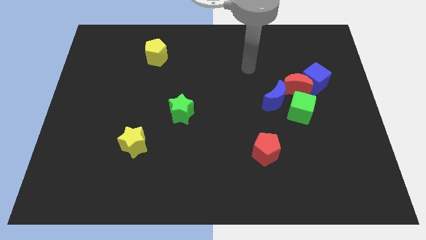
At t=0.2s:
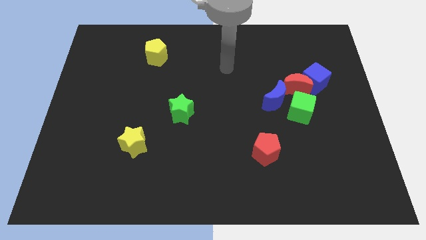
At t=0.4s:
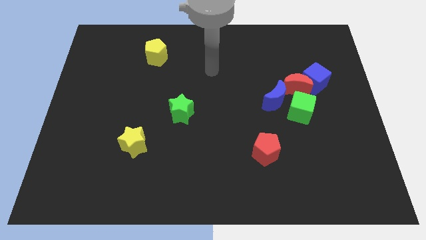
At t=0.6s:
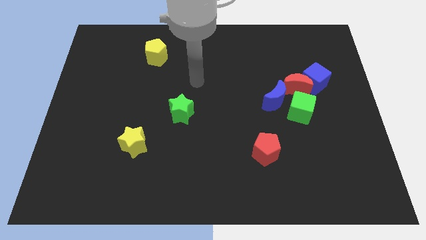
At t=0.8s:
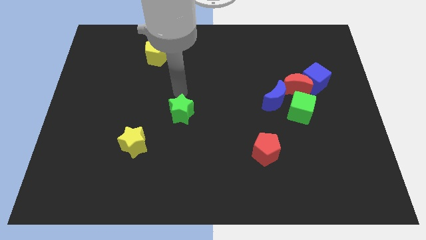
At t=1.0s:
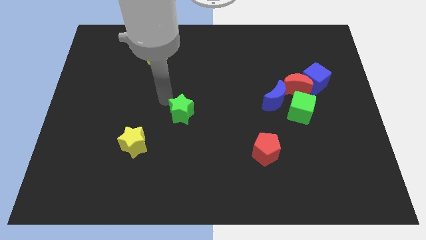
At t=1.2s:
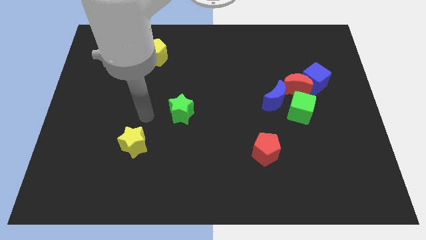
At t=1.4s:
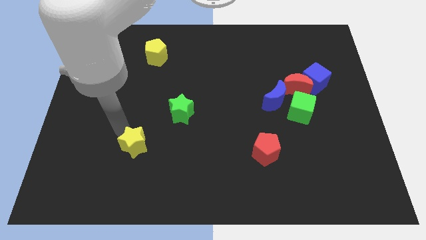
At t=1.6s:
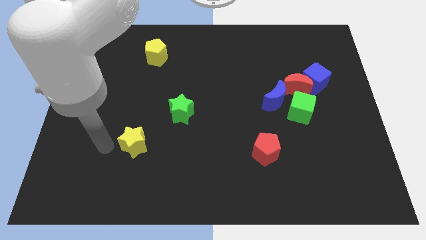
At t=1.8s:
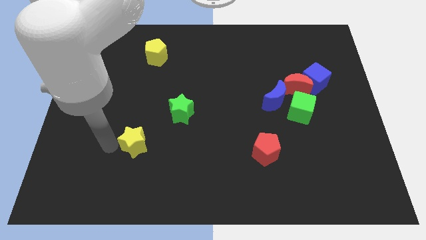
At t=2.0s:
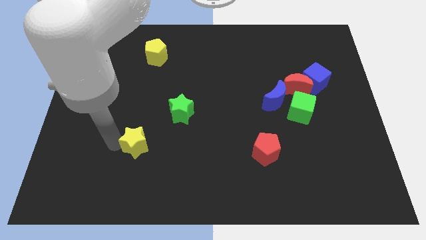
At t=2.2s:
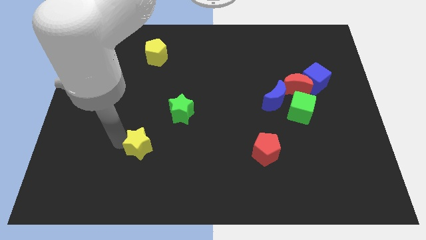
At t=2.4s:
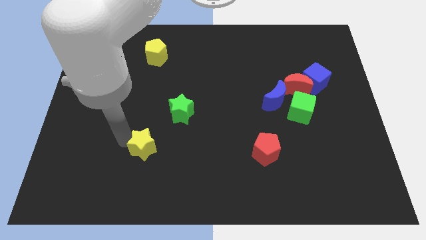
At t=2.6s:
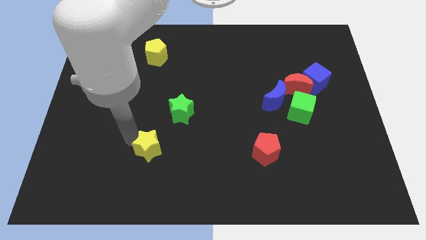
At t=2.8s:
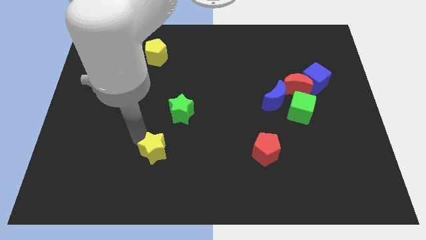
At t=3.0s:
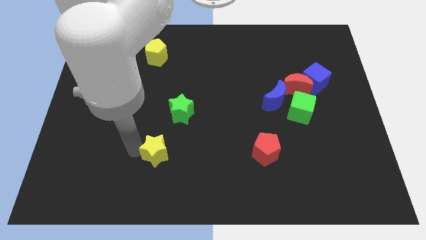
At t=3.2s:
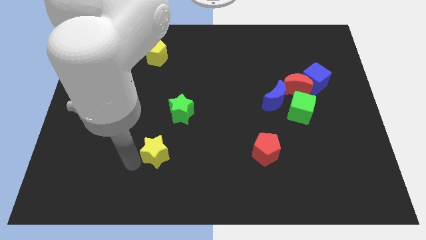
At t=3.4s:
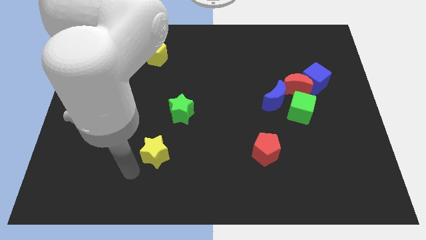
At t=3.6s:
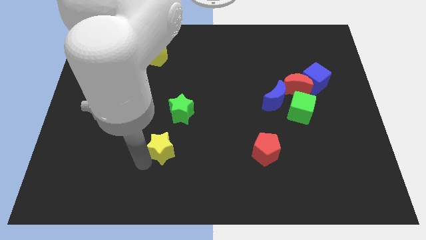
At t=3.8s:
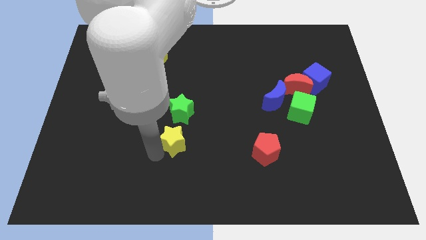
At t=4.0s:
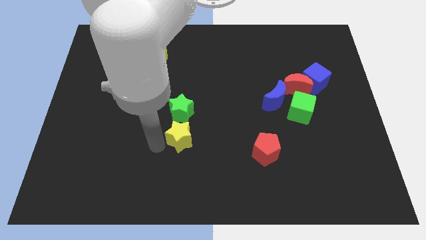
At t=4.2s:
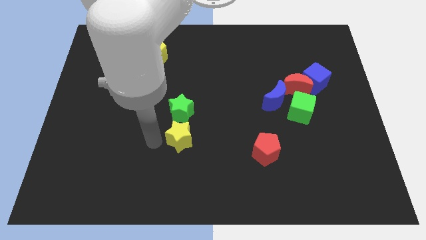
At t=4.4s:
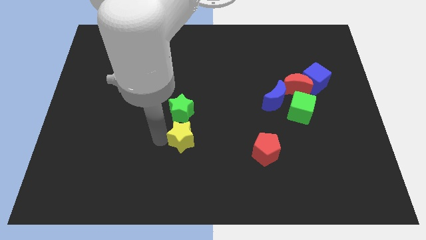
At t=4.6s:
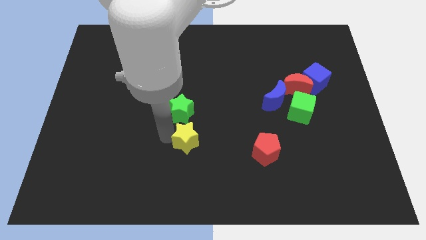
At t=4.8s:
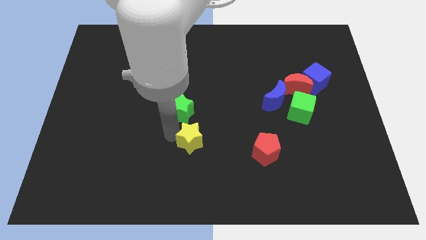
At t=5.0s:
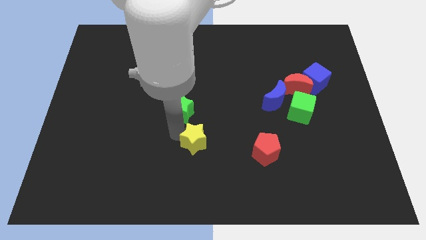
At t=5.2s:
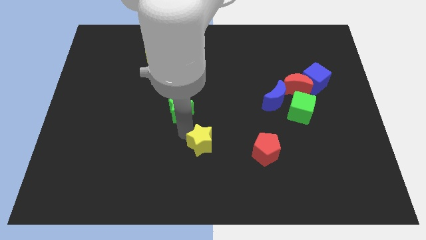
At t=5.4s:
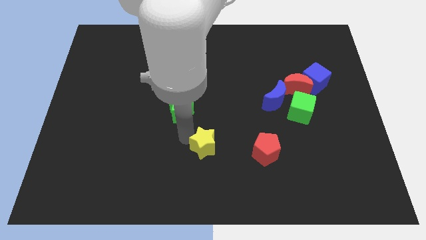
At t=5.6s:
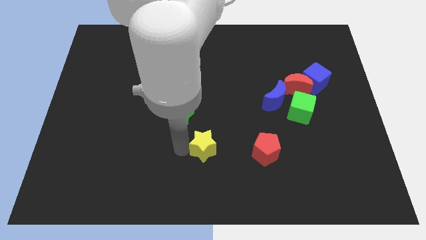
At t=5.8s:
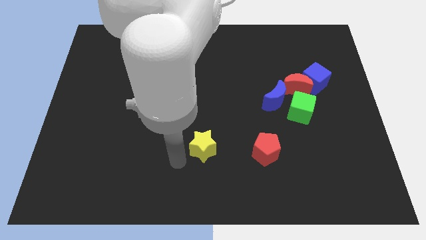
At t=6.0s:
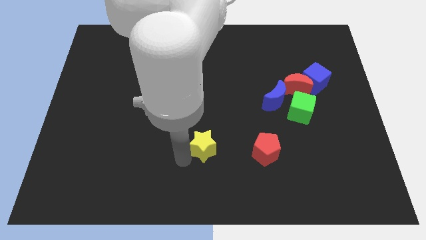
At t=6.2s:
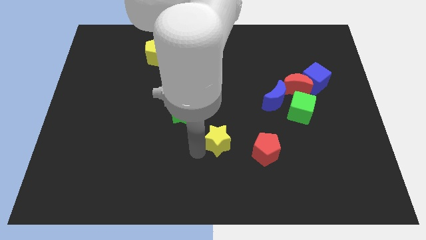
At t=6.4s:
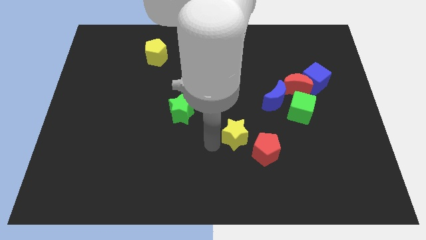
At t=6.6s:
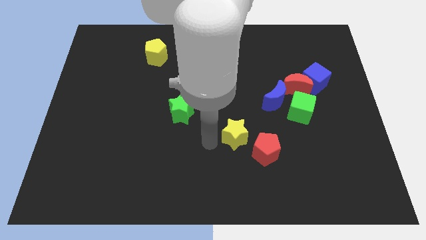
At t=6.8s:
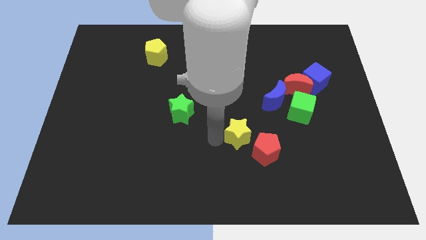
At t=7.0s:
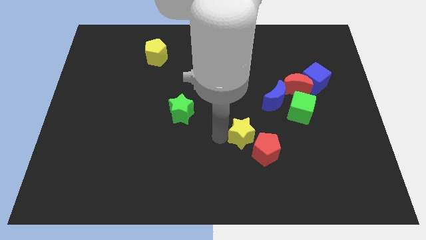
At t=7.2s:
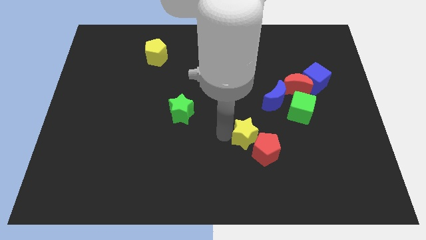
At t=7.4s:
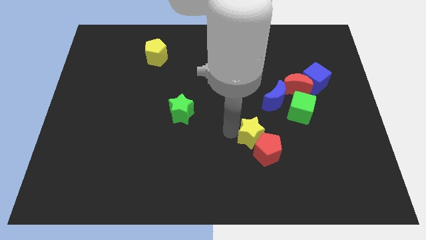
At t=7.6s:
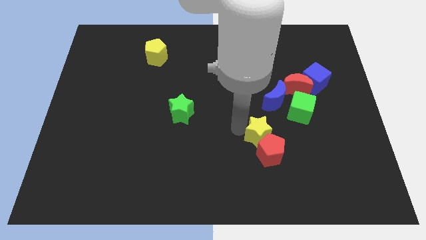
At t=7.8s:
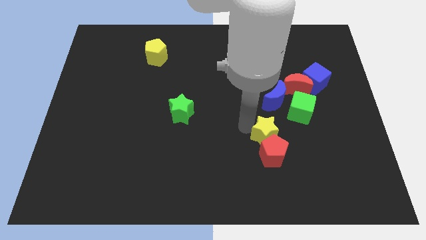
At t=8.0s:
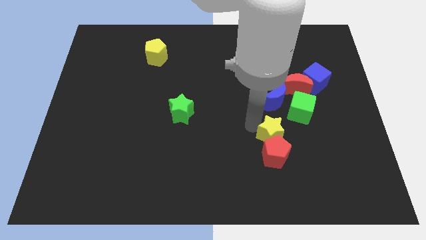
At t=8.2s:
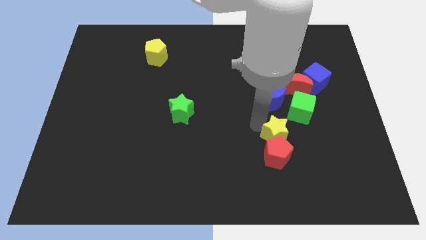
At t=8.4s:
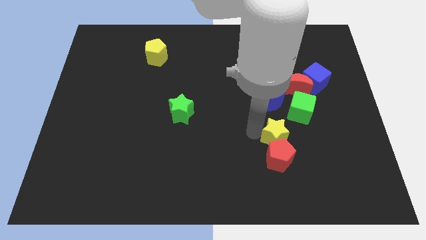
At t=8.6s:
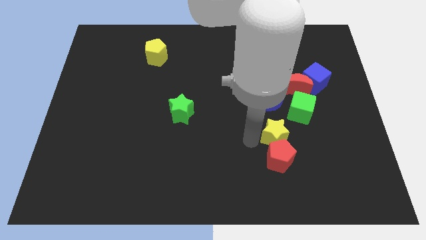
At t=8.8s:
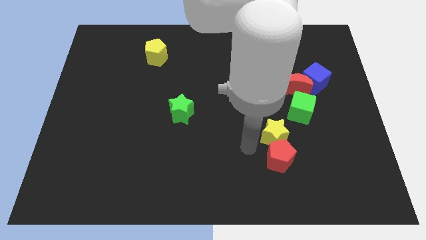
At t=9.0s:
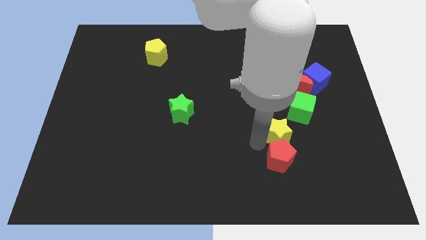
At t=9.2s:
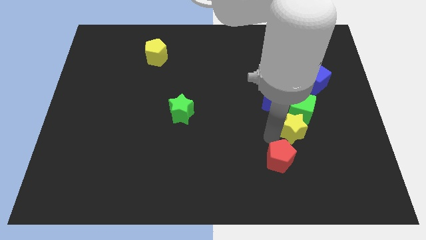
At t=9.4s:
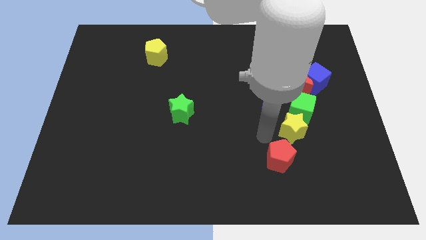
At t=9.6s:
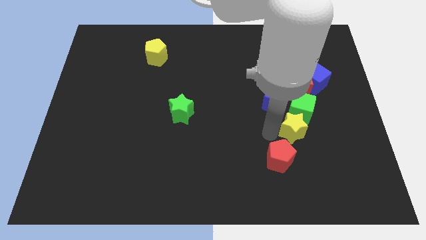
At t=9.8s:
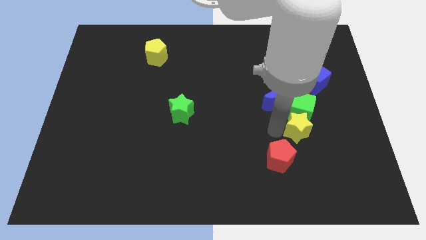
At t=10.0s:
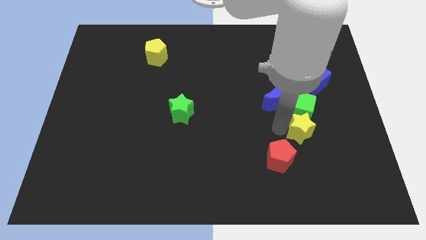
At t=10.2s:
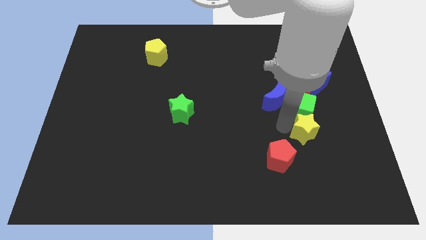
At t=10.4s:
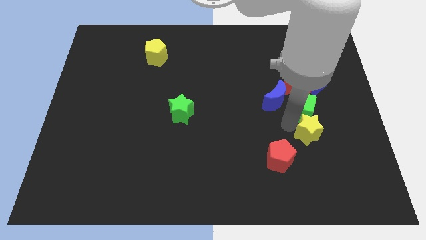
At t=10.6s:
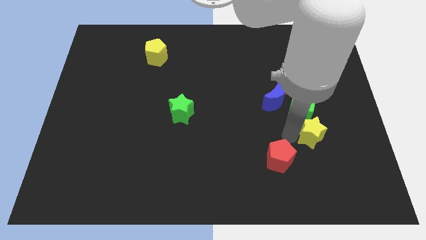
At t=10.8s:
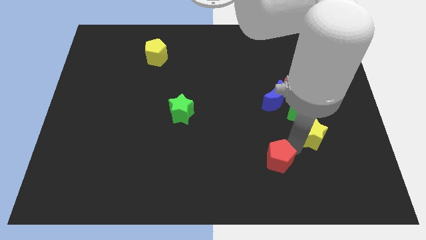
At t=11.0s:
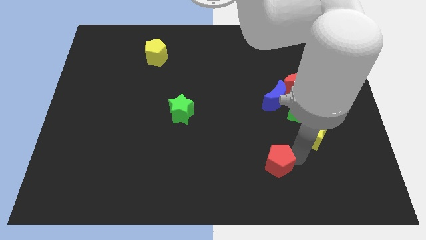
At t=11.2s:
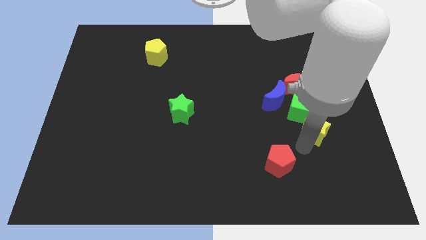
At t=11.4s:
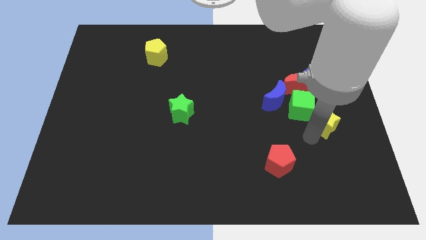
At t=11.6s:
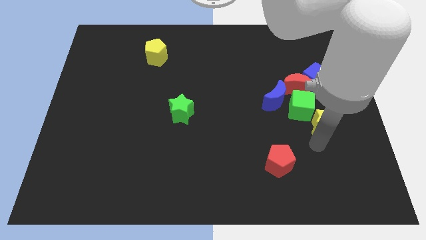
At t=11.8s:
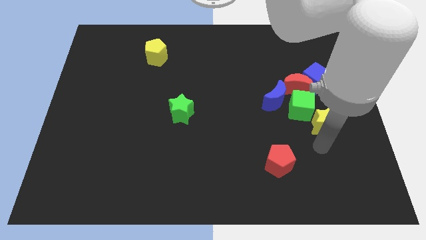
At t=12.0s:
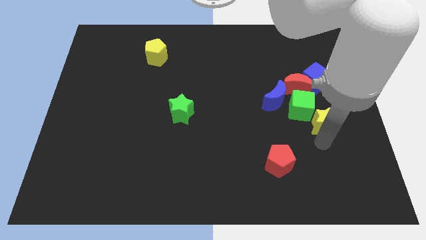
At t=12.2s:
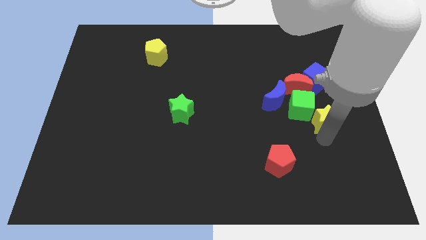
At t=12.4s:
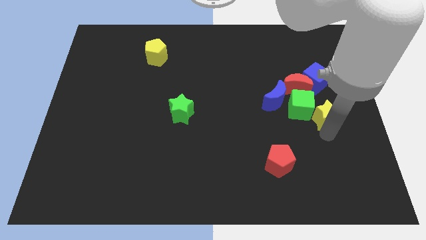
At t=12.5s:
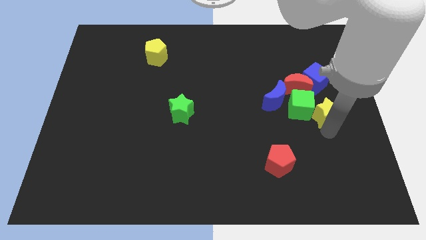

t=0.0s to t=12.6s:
move the yellow star to the right of the blue moon
